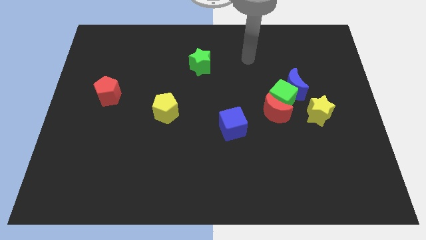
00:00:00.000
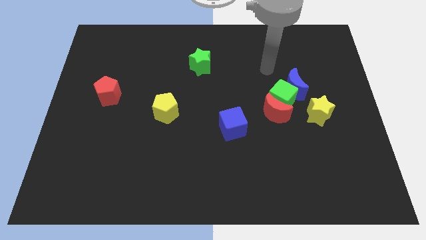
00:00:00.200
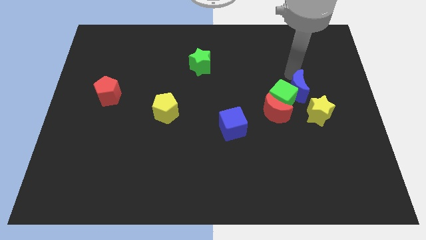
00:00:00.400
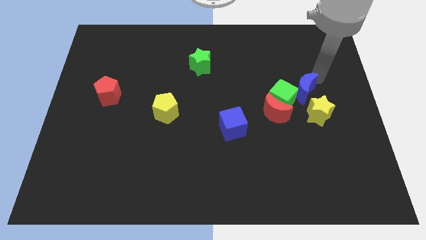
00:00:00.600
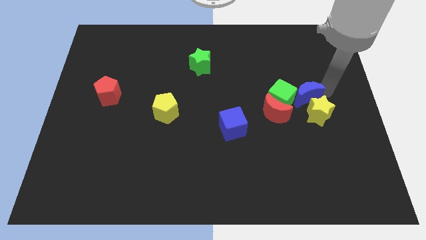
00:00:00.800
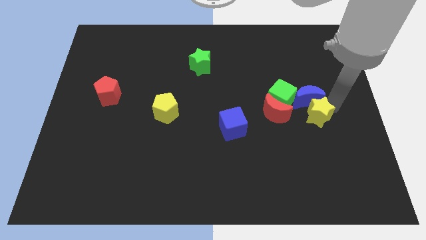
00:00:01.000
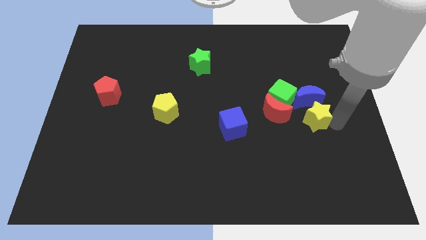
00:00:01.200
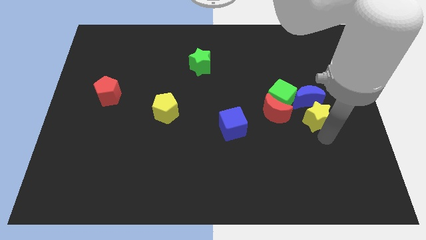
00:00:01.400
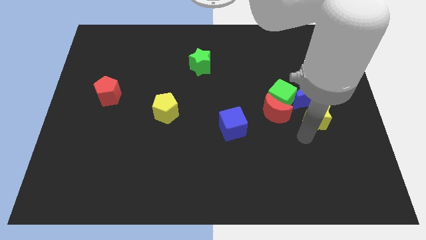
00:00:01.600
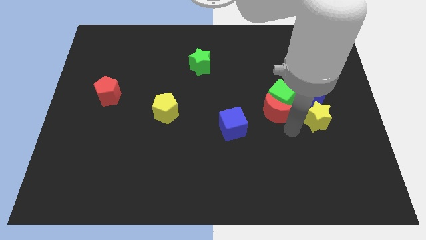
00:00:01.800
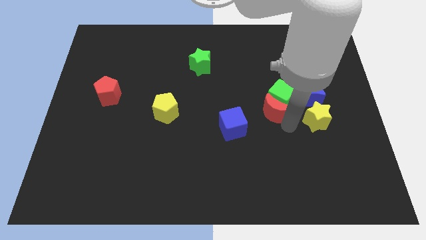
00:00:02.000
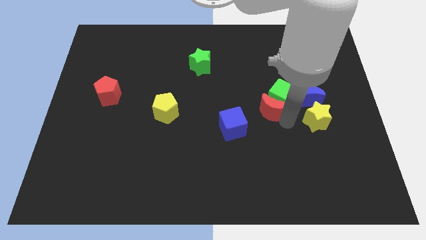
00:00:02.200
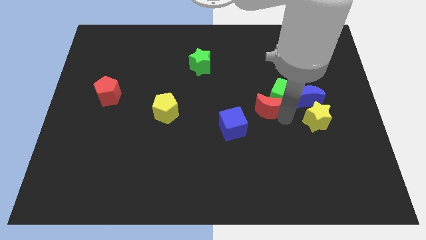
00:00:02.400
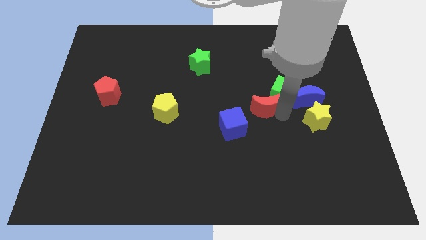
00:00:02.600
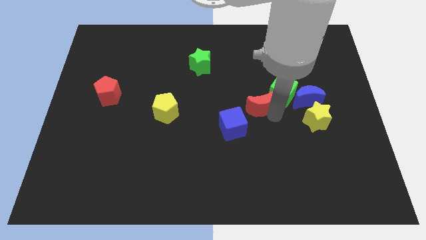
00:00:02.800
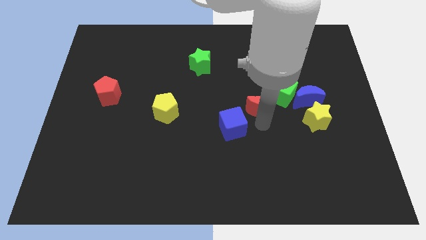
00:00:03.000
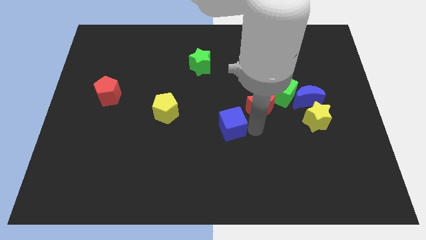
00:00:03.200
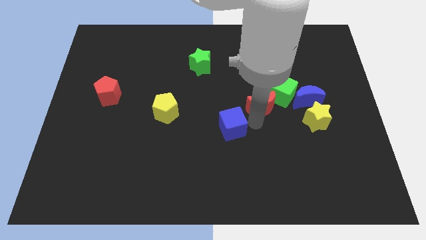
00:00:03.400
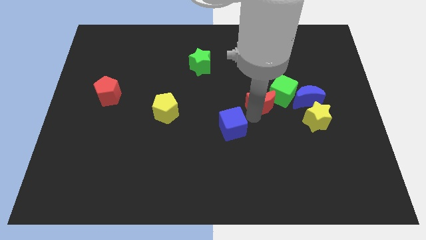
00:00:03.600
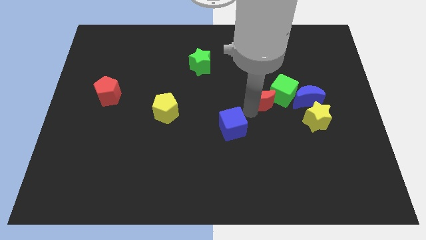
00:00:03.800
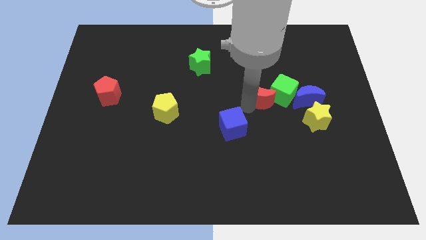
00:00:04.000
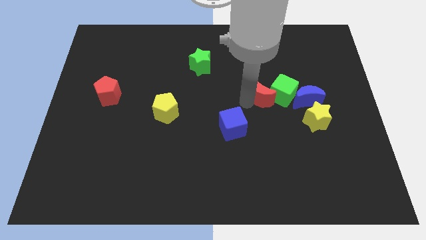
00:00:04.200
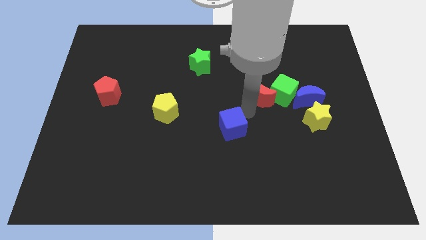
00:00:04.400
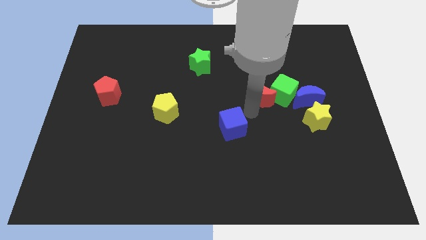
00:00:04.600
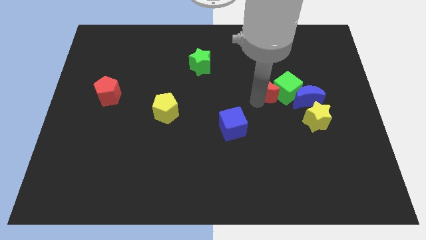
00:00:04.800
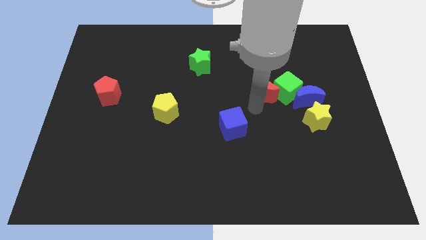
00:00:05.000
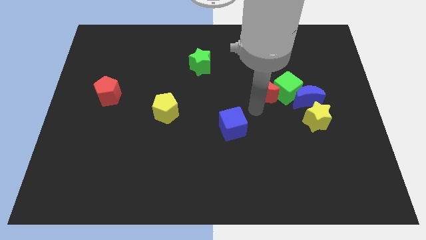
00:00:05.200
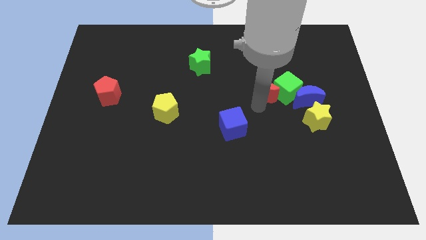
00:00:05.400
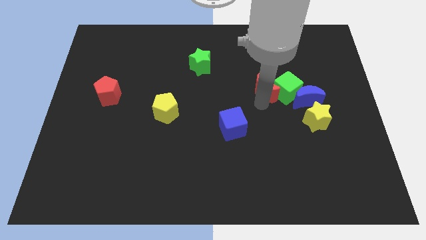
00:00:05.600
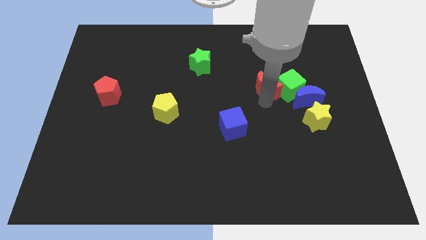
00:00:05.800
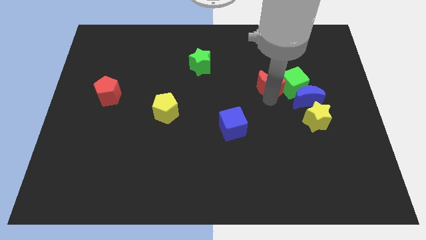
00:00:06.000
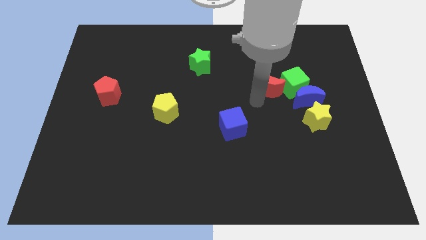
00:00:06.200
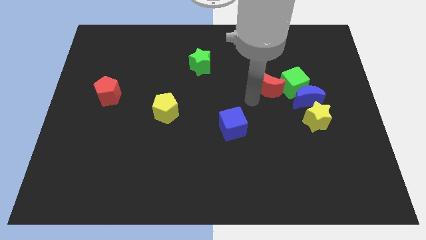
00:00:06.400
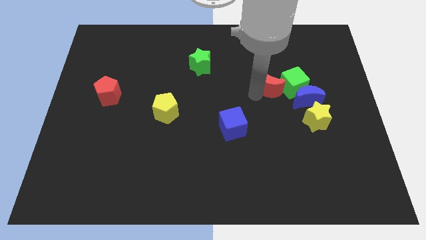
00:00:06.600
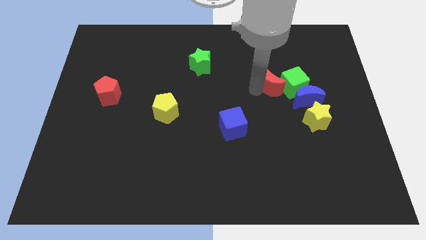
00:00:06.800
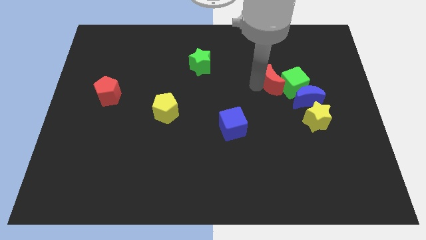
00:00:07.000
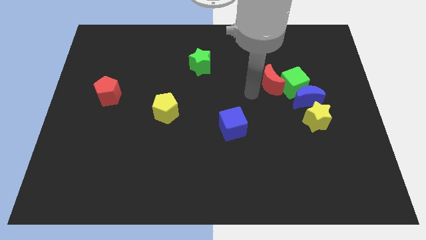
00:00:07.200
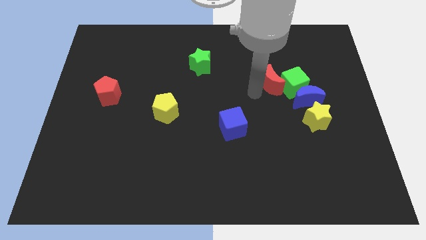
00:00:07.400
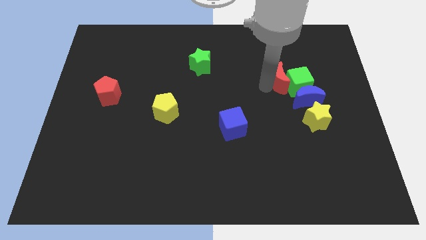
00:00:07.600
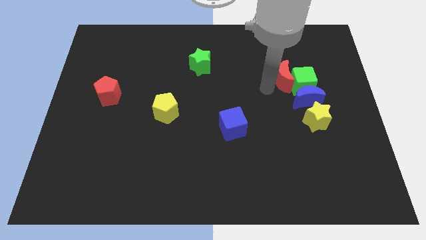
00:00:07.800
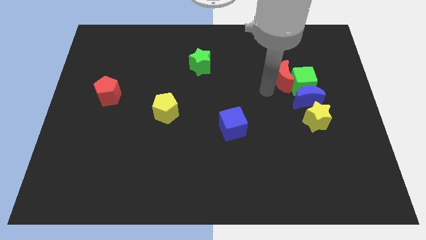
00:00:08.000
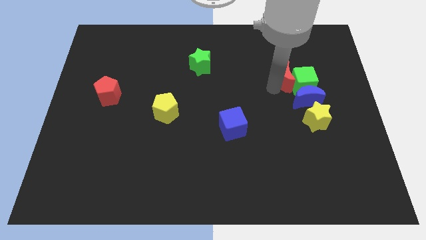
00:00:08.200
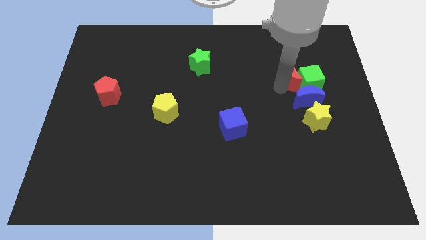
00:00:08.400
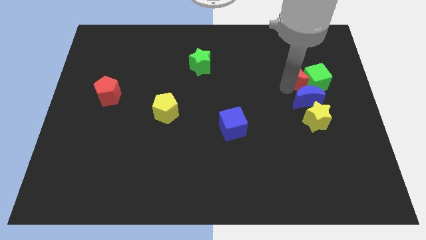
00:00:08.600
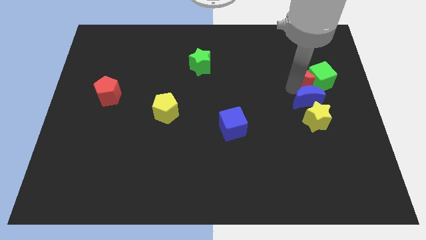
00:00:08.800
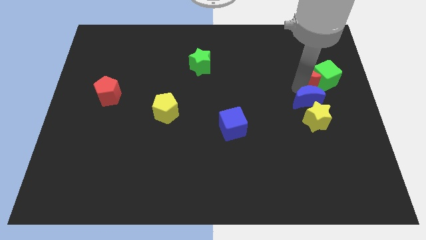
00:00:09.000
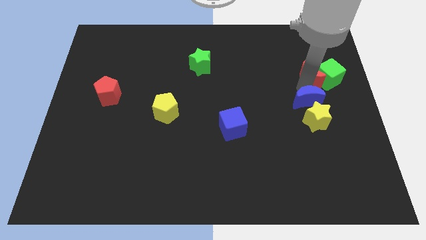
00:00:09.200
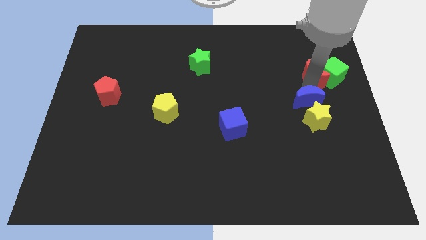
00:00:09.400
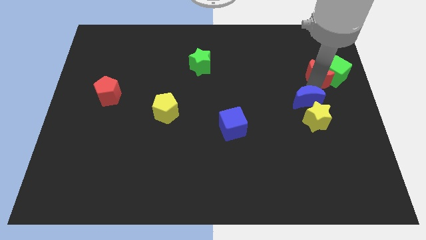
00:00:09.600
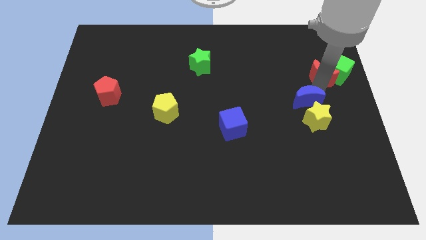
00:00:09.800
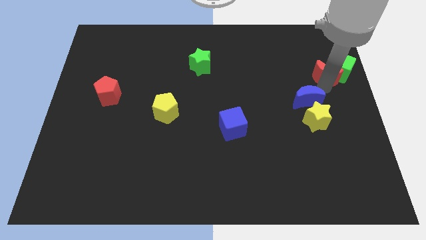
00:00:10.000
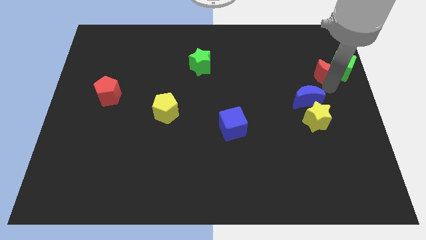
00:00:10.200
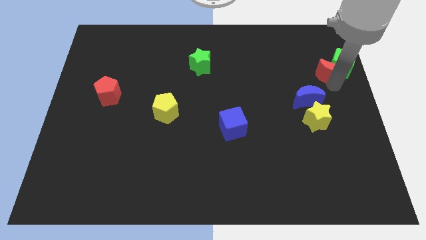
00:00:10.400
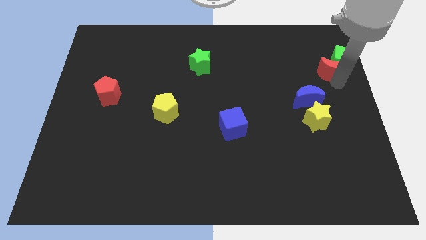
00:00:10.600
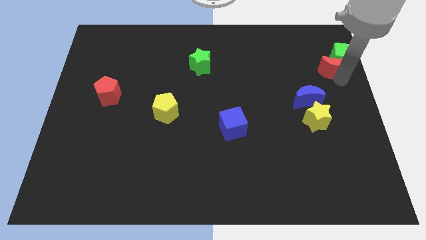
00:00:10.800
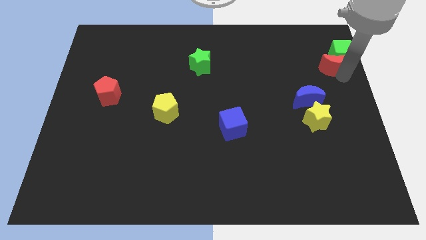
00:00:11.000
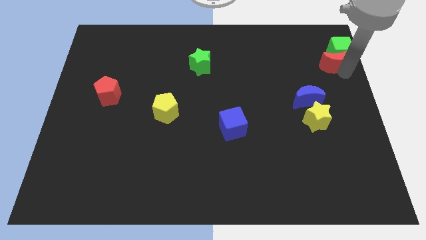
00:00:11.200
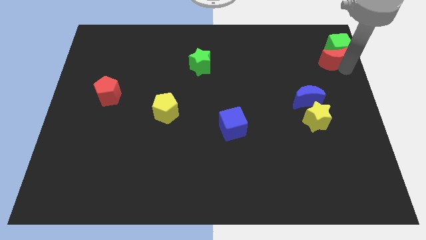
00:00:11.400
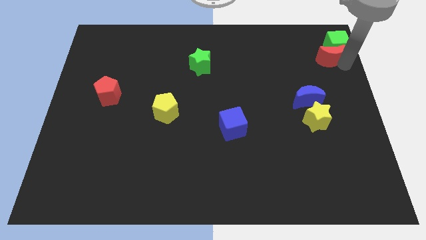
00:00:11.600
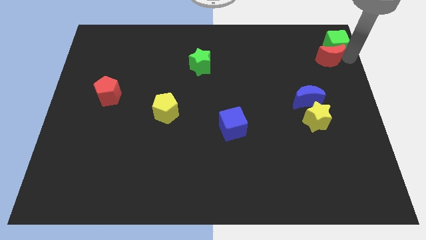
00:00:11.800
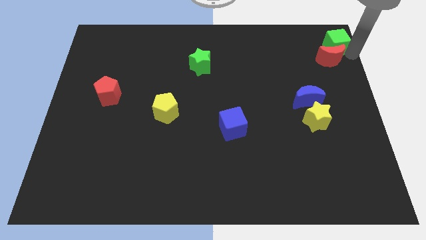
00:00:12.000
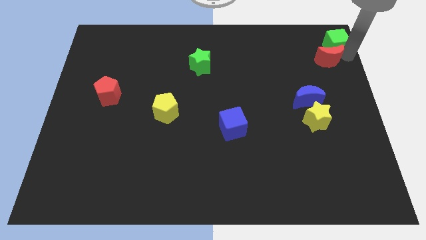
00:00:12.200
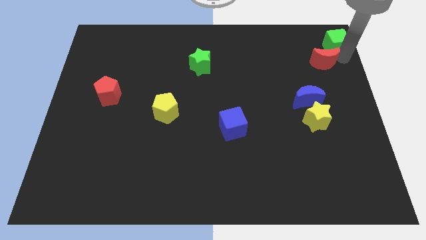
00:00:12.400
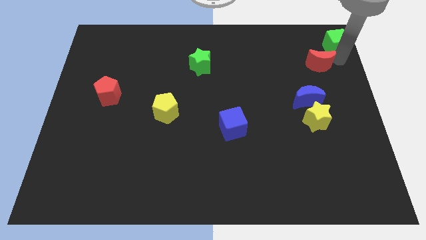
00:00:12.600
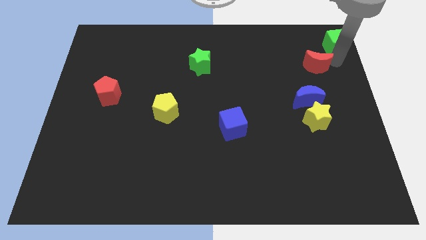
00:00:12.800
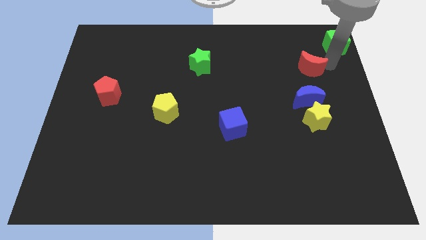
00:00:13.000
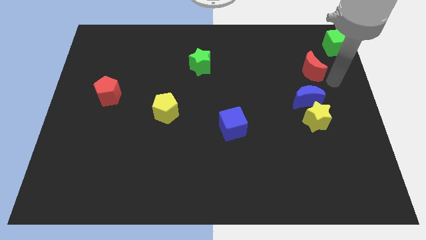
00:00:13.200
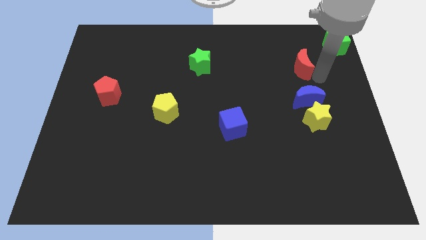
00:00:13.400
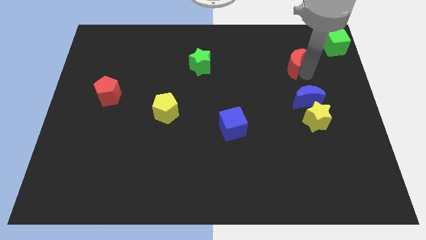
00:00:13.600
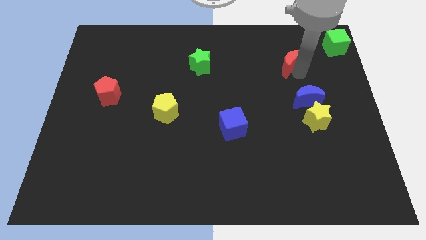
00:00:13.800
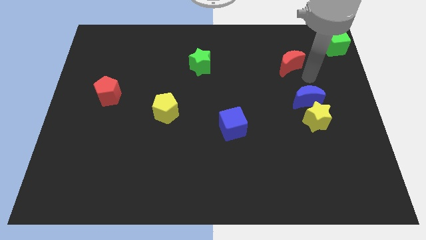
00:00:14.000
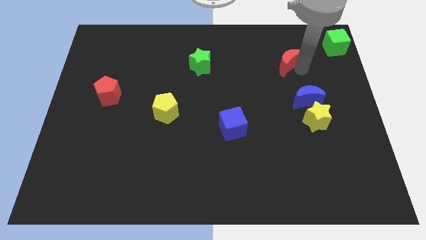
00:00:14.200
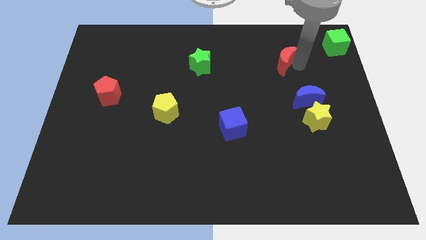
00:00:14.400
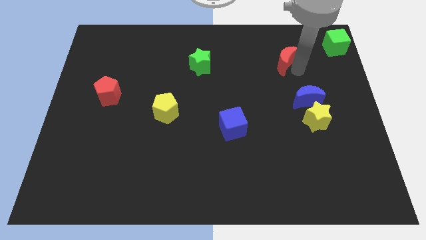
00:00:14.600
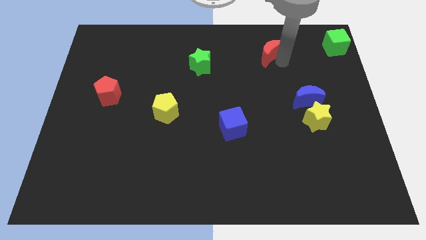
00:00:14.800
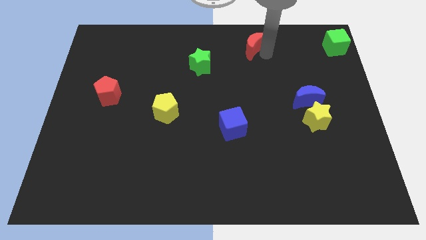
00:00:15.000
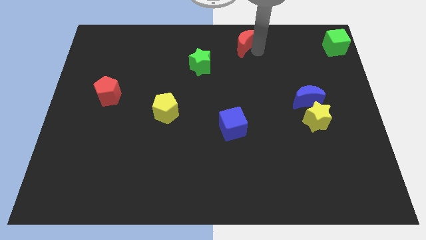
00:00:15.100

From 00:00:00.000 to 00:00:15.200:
put the red moon to the top side
